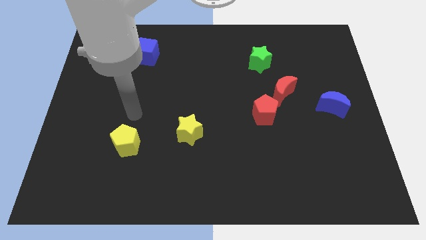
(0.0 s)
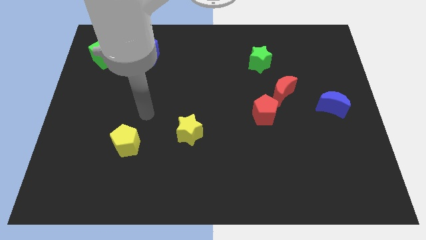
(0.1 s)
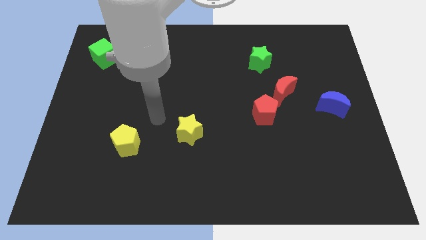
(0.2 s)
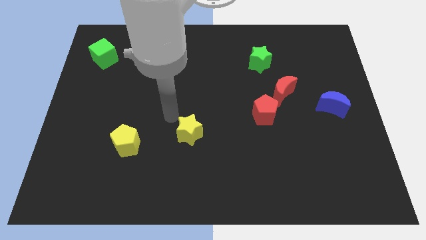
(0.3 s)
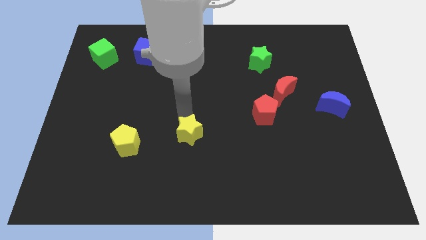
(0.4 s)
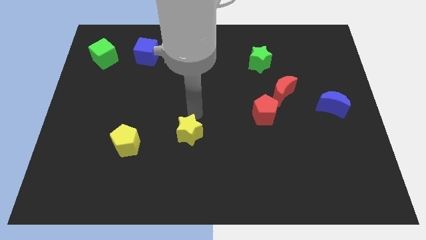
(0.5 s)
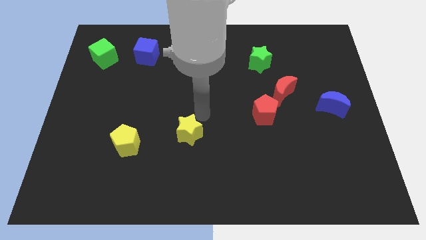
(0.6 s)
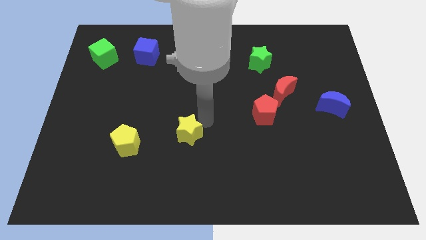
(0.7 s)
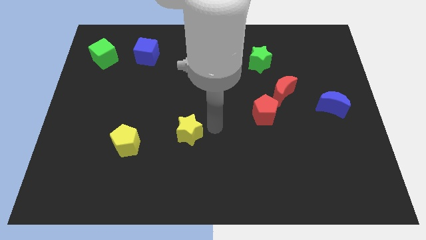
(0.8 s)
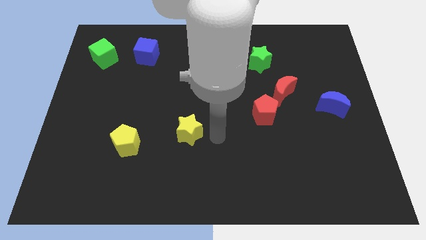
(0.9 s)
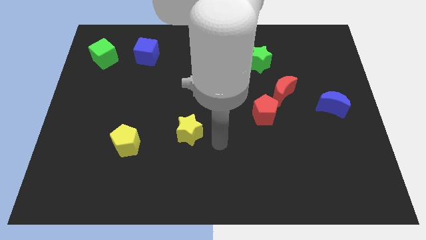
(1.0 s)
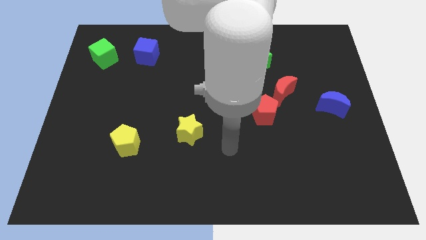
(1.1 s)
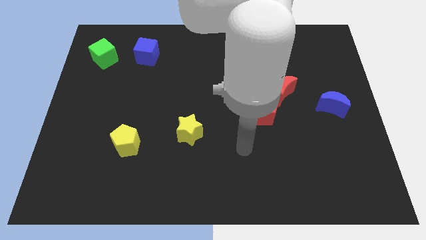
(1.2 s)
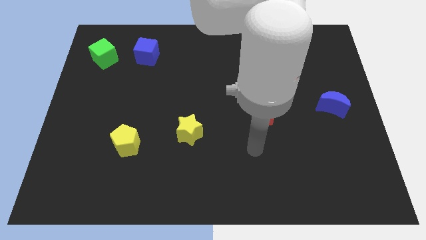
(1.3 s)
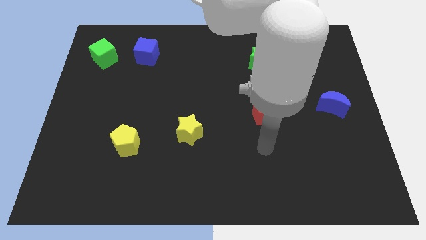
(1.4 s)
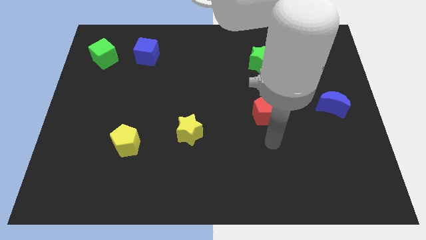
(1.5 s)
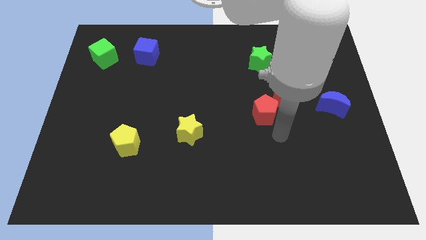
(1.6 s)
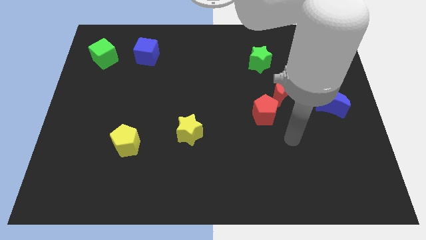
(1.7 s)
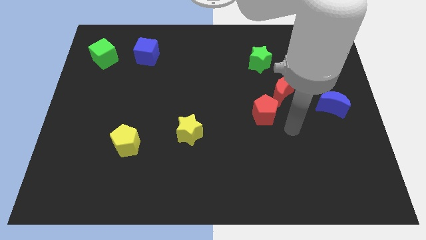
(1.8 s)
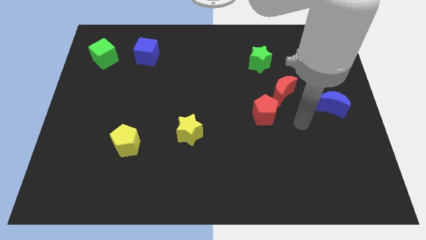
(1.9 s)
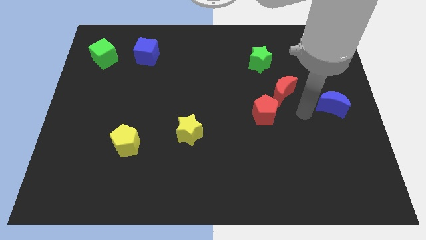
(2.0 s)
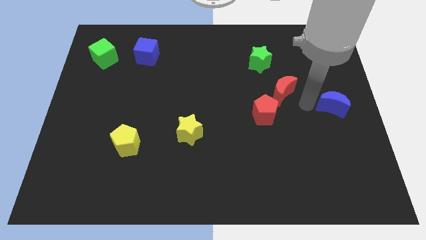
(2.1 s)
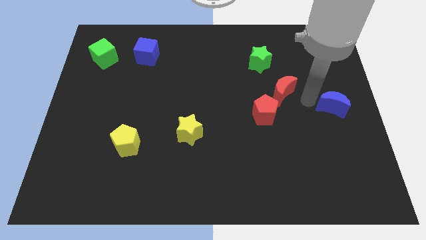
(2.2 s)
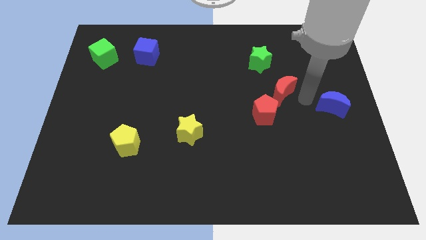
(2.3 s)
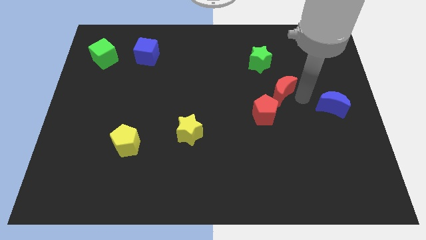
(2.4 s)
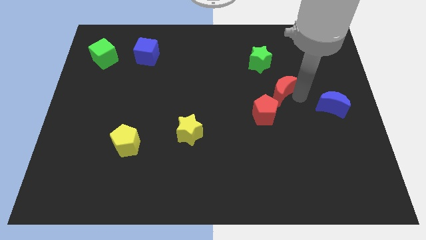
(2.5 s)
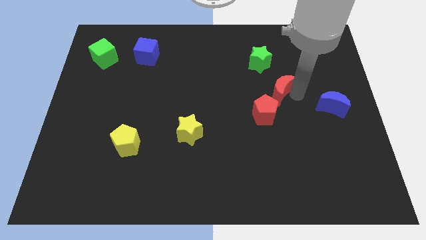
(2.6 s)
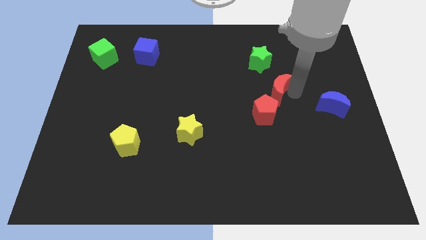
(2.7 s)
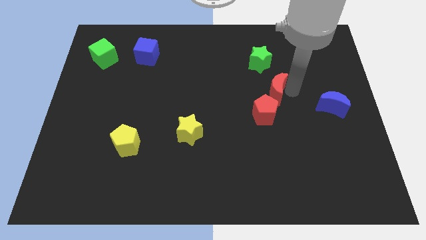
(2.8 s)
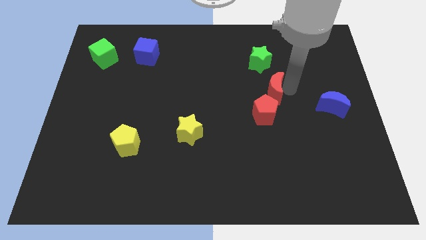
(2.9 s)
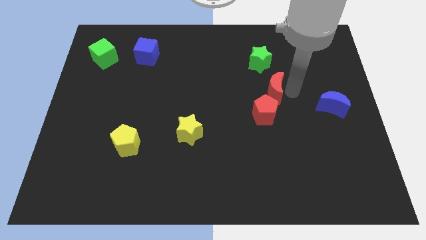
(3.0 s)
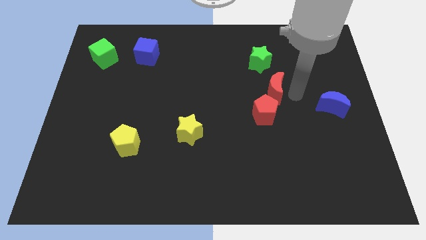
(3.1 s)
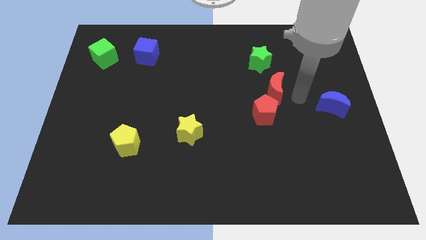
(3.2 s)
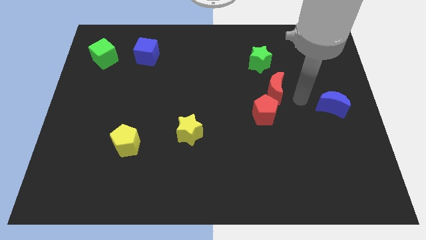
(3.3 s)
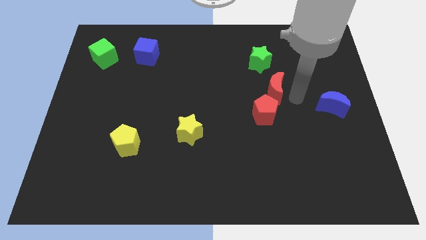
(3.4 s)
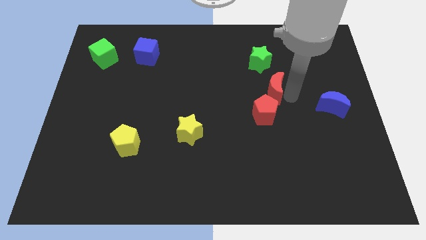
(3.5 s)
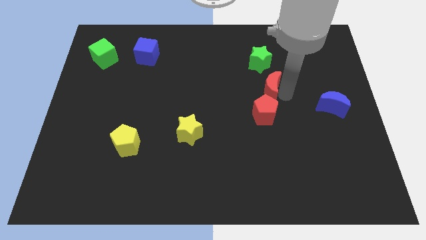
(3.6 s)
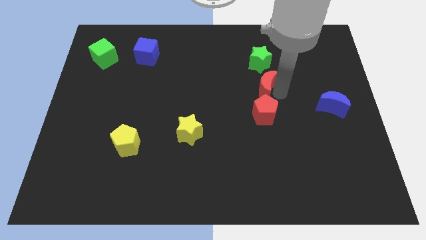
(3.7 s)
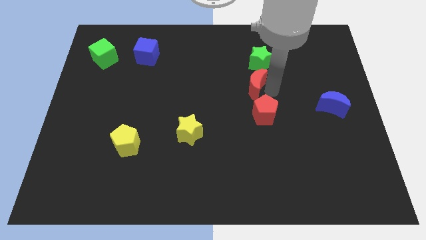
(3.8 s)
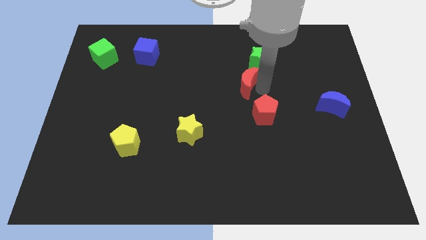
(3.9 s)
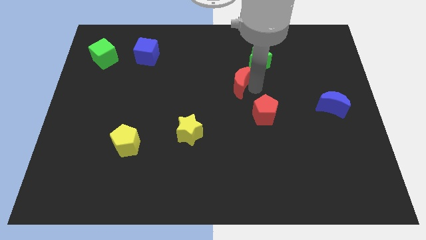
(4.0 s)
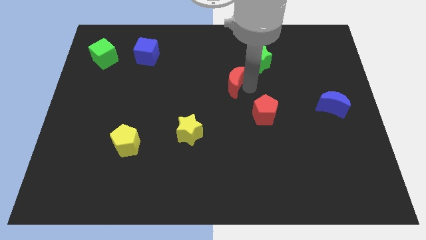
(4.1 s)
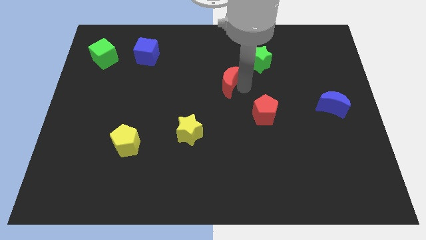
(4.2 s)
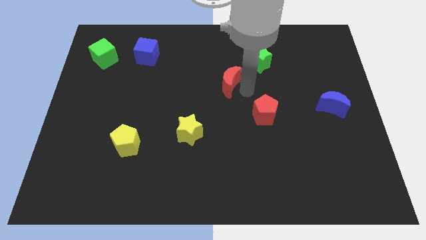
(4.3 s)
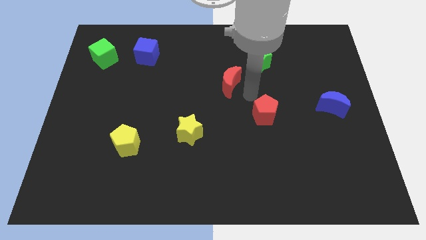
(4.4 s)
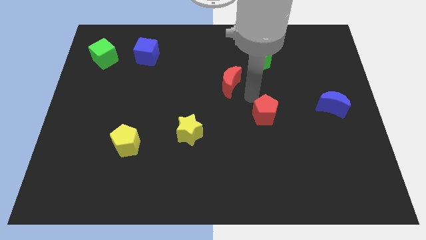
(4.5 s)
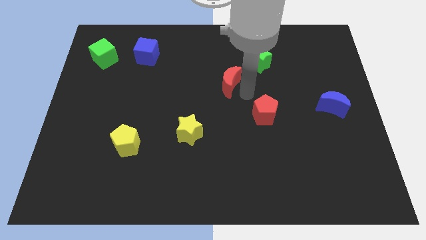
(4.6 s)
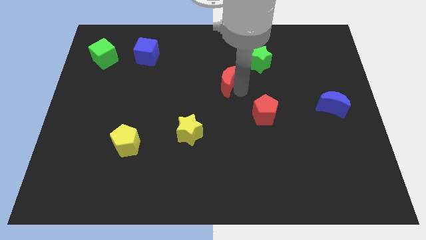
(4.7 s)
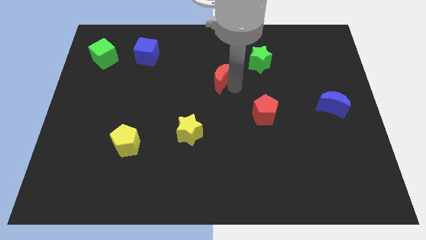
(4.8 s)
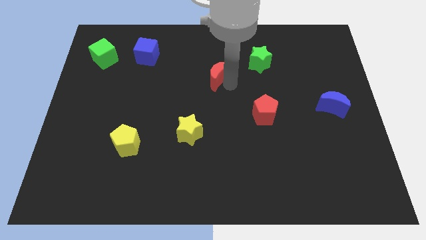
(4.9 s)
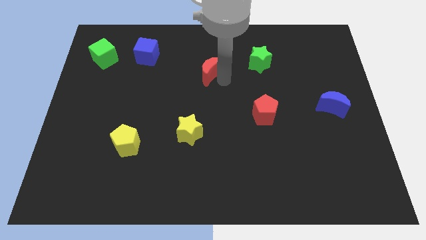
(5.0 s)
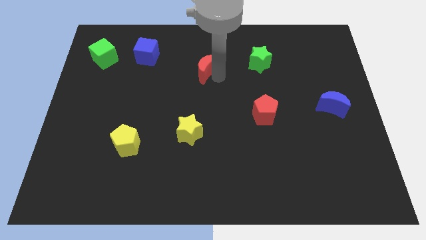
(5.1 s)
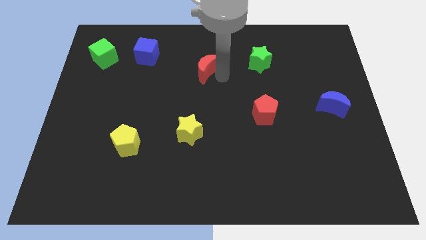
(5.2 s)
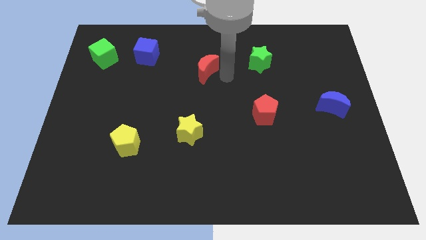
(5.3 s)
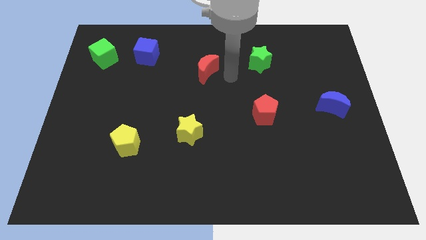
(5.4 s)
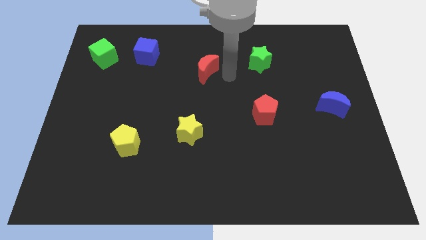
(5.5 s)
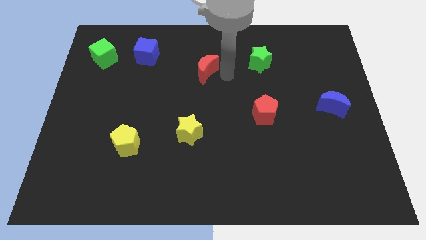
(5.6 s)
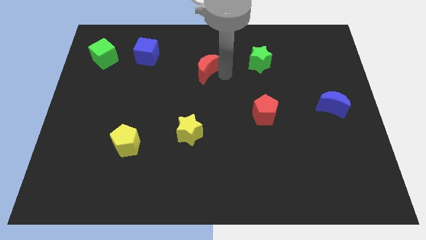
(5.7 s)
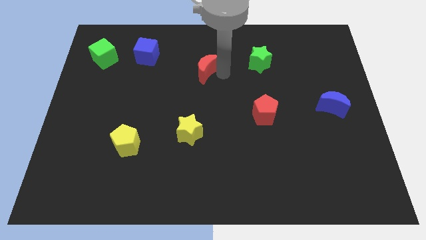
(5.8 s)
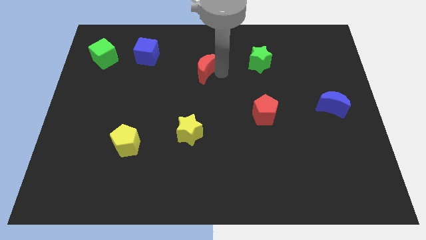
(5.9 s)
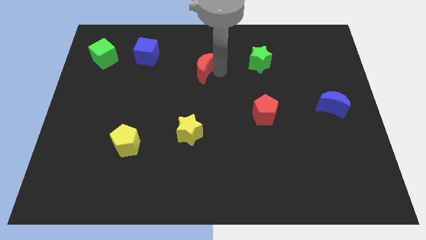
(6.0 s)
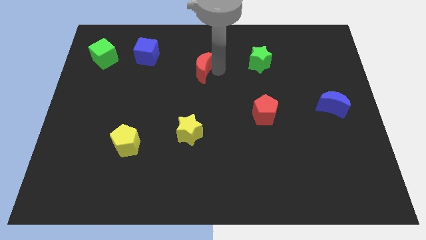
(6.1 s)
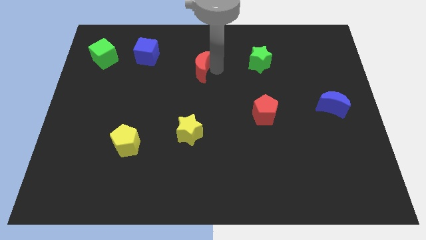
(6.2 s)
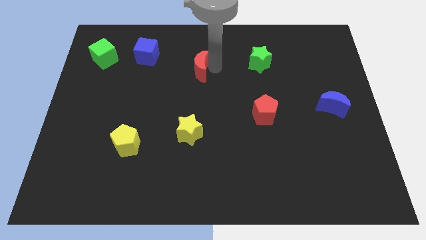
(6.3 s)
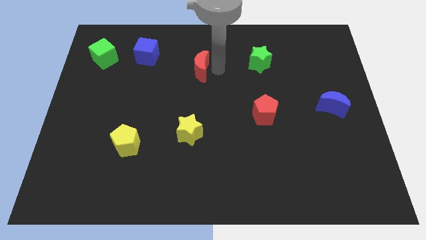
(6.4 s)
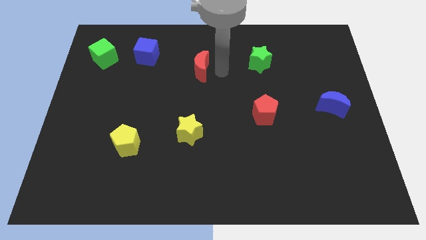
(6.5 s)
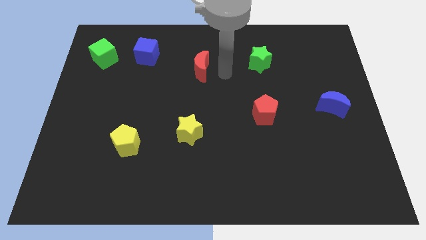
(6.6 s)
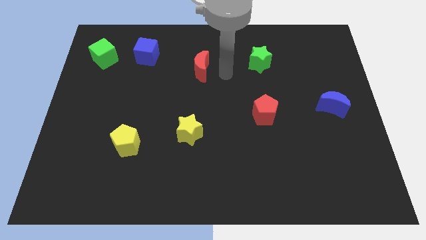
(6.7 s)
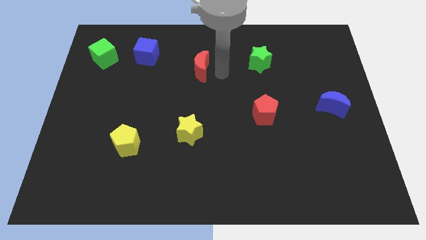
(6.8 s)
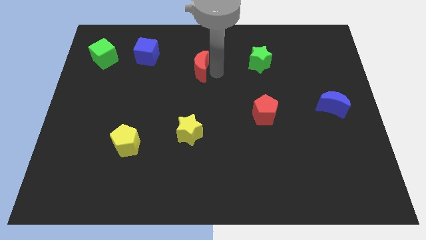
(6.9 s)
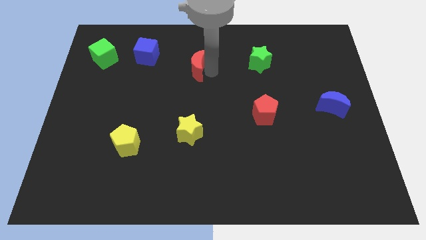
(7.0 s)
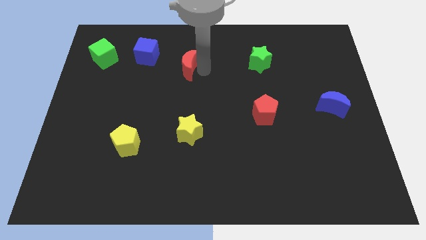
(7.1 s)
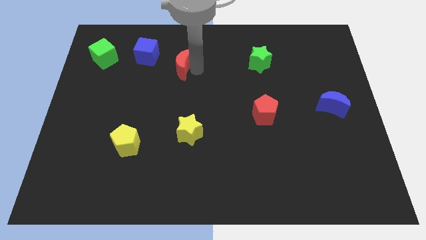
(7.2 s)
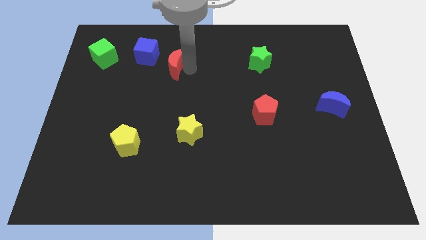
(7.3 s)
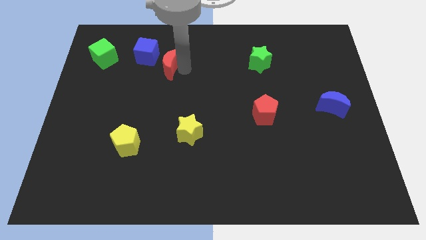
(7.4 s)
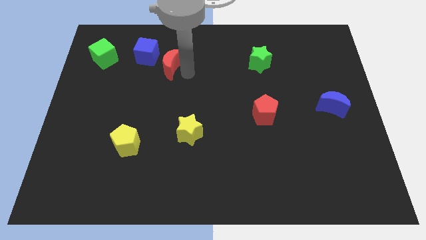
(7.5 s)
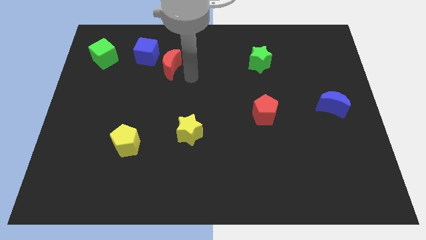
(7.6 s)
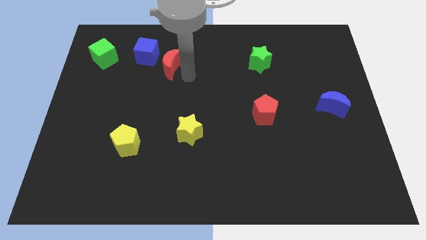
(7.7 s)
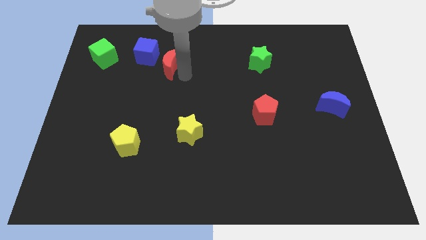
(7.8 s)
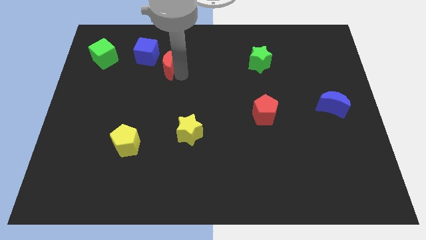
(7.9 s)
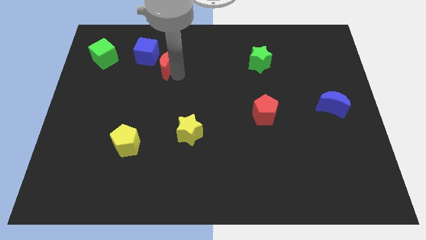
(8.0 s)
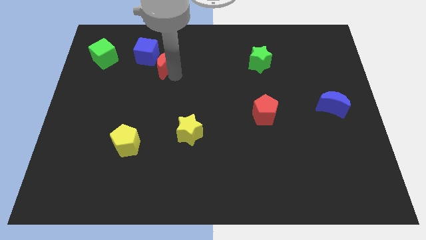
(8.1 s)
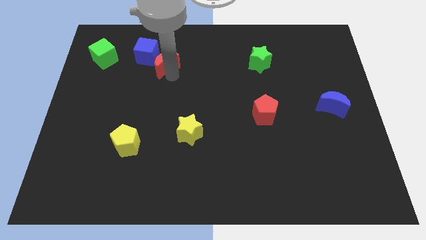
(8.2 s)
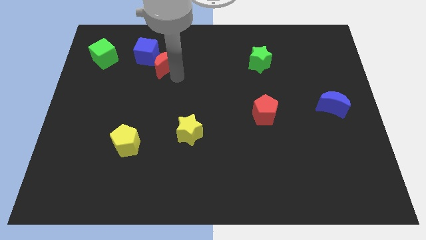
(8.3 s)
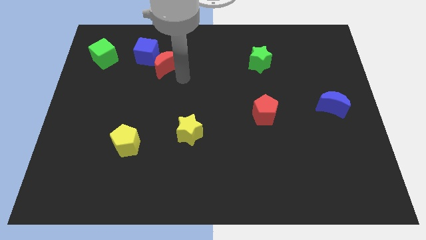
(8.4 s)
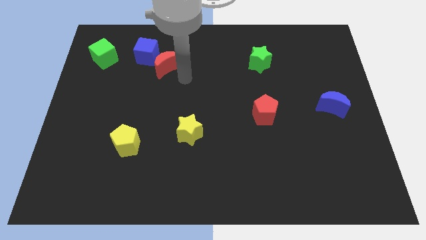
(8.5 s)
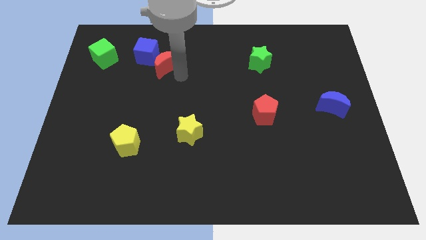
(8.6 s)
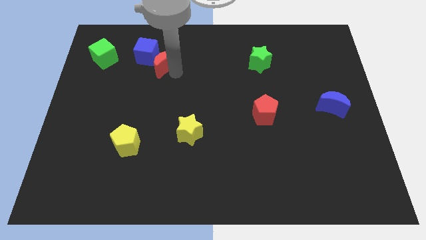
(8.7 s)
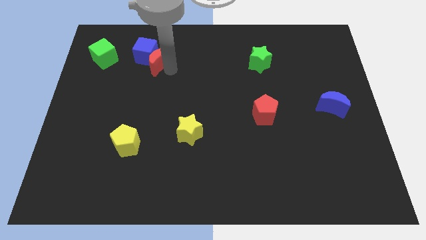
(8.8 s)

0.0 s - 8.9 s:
push the red moon towards the blue cube
